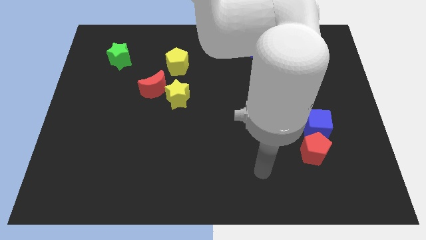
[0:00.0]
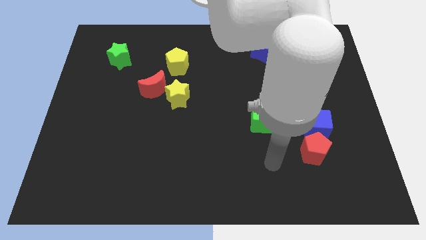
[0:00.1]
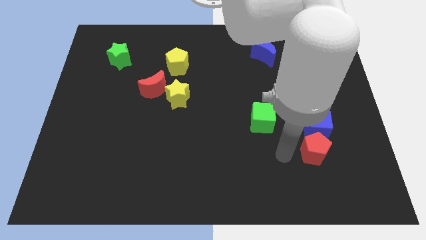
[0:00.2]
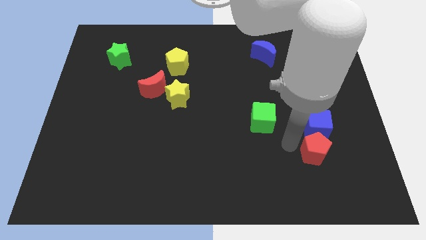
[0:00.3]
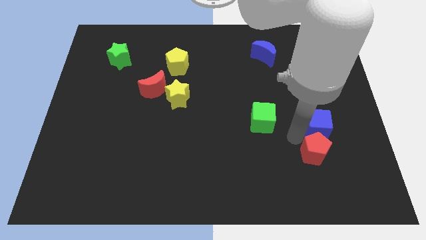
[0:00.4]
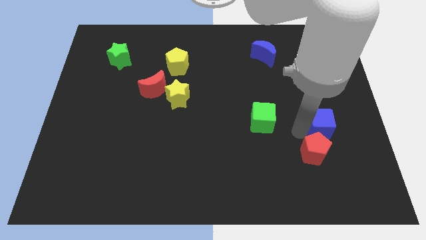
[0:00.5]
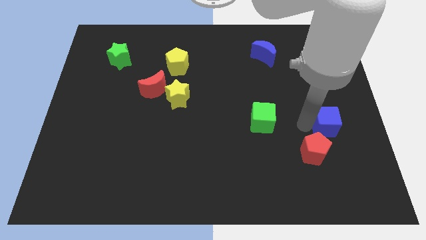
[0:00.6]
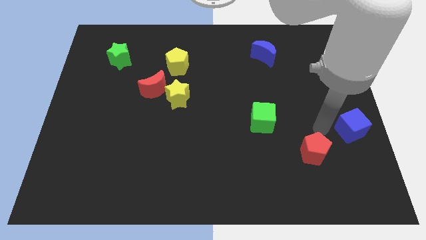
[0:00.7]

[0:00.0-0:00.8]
pull the red pentagon apart from the blue cube

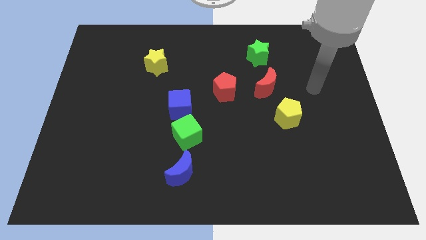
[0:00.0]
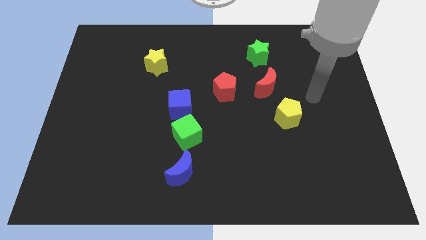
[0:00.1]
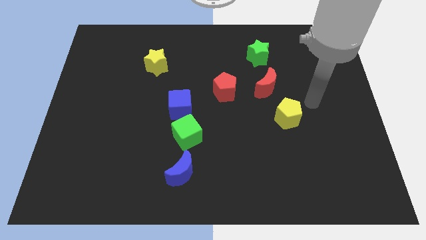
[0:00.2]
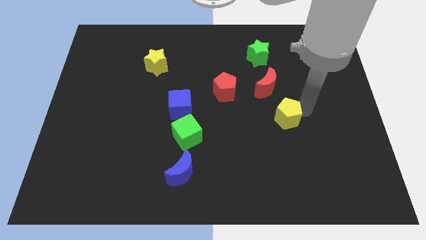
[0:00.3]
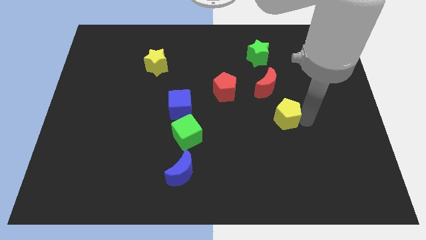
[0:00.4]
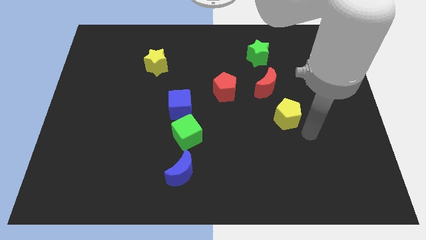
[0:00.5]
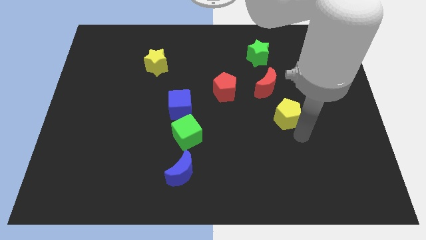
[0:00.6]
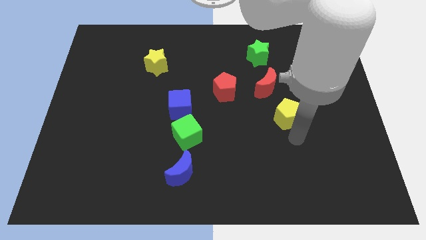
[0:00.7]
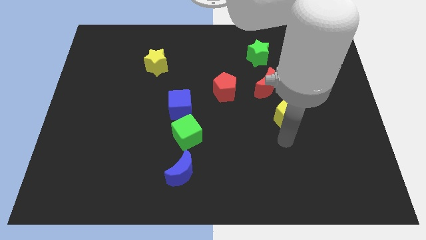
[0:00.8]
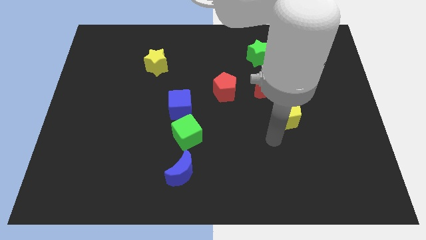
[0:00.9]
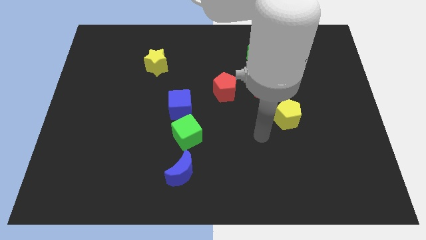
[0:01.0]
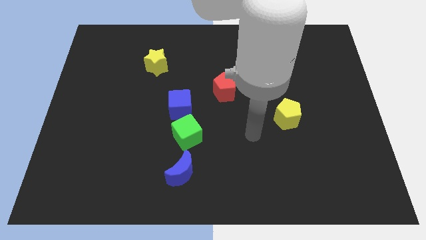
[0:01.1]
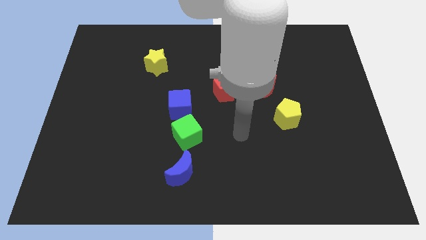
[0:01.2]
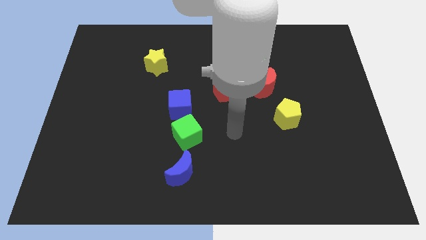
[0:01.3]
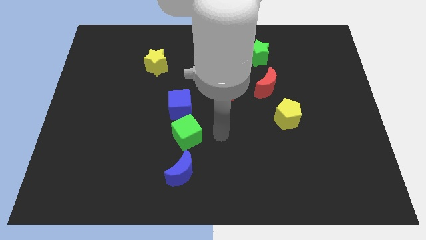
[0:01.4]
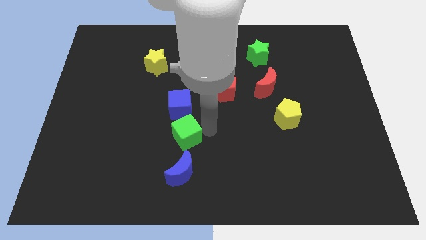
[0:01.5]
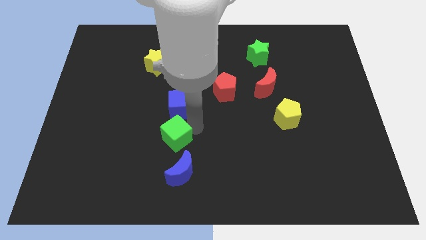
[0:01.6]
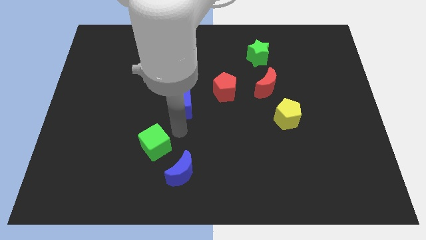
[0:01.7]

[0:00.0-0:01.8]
move the blue cube away from the green cube

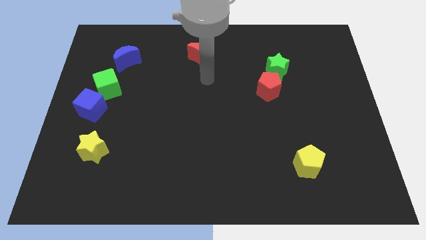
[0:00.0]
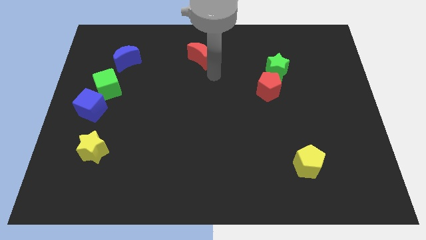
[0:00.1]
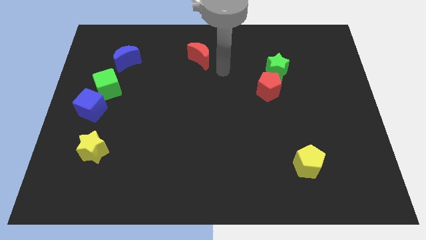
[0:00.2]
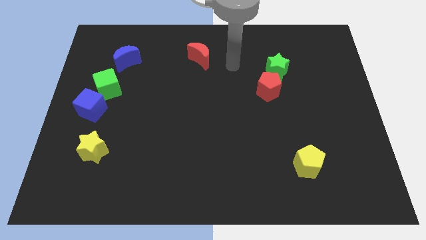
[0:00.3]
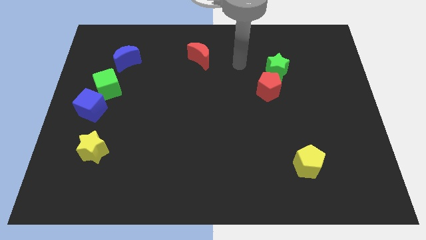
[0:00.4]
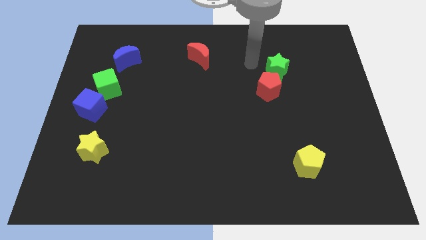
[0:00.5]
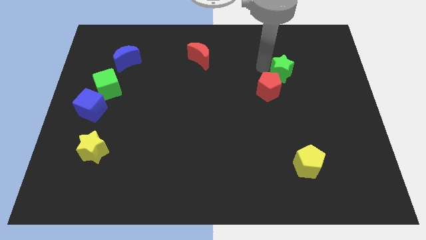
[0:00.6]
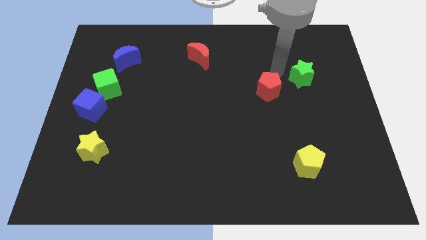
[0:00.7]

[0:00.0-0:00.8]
separate the red pentagon from the green star

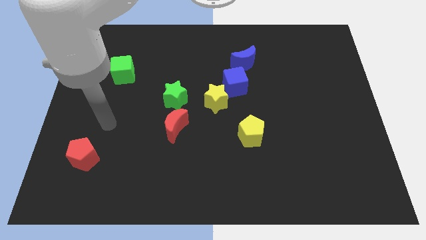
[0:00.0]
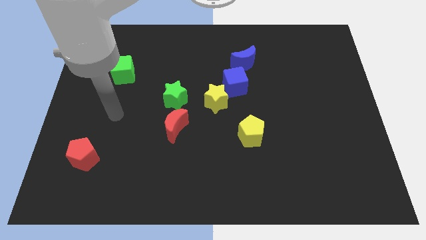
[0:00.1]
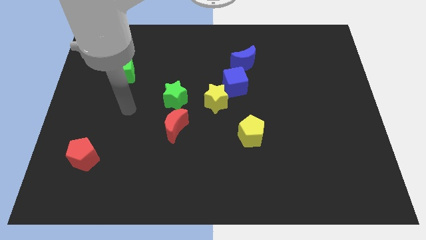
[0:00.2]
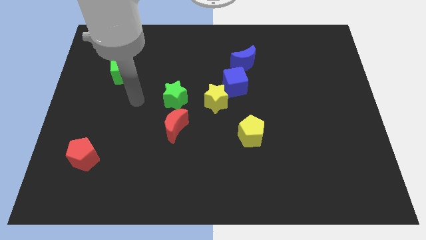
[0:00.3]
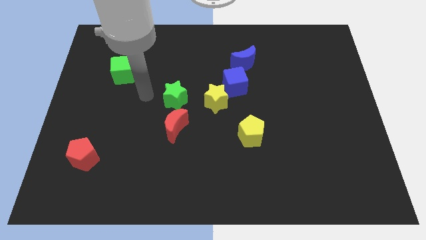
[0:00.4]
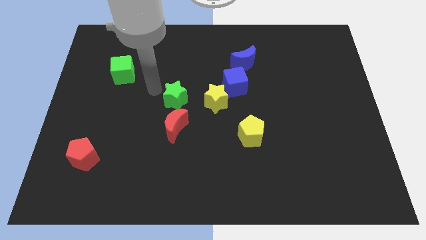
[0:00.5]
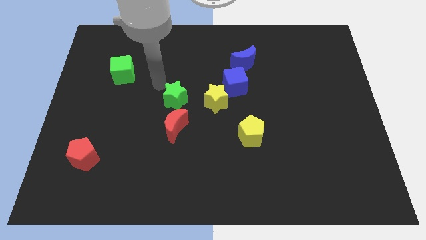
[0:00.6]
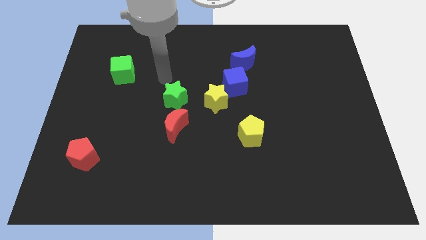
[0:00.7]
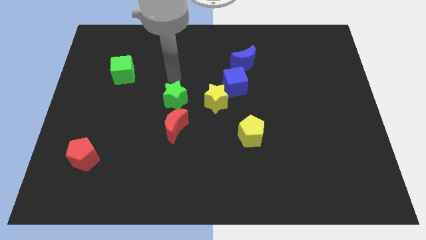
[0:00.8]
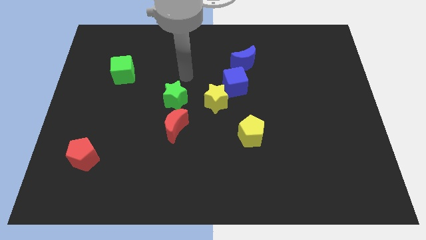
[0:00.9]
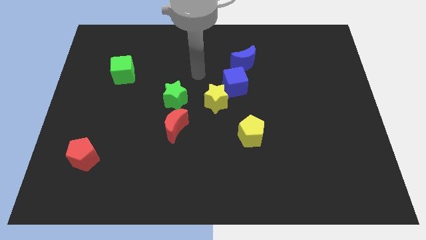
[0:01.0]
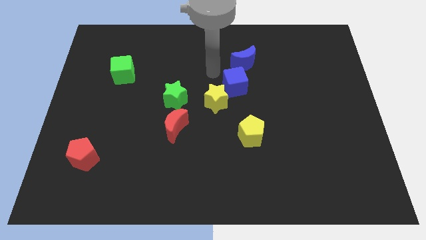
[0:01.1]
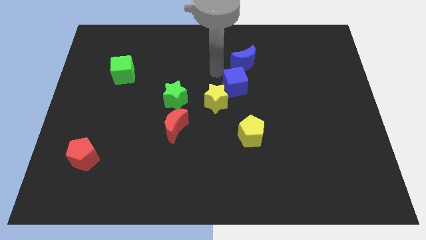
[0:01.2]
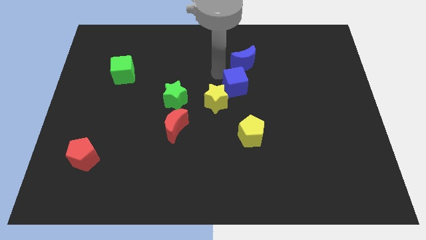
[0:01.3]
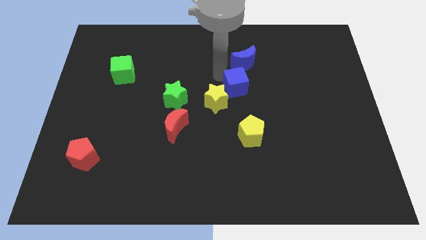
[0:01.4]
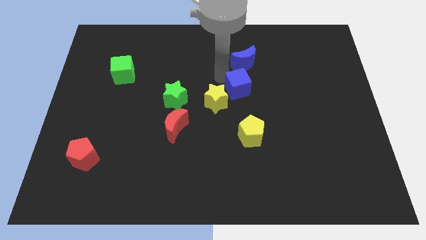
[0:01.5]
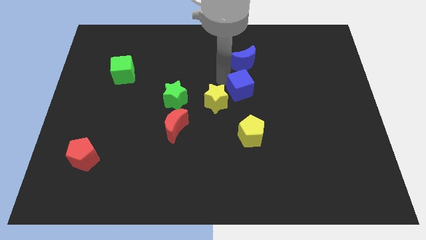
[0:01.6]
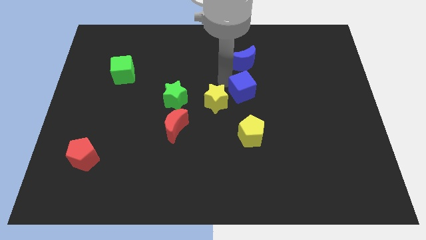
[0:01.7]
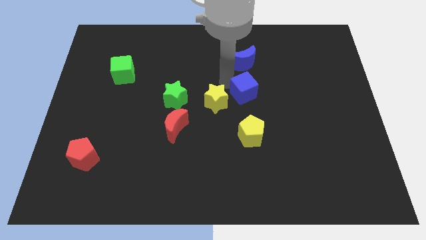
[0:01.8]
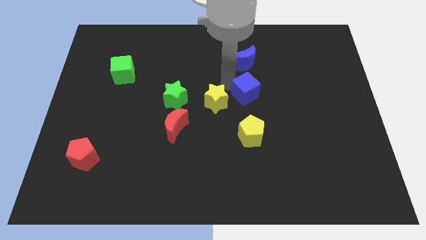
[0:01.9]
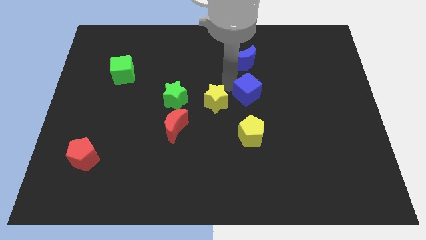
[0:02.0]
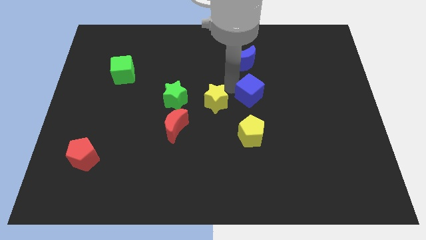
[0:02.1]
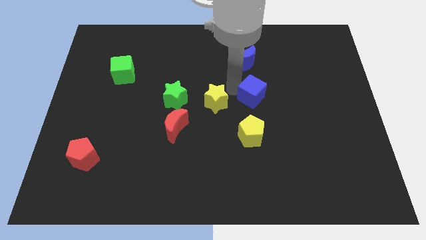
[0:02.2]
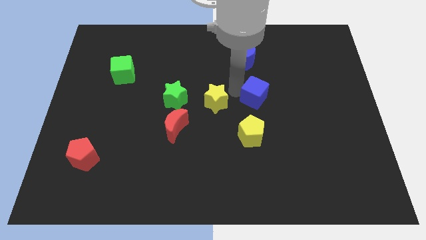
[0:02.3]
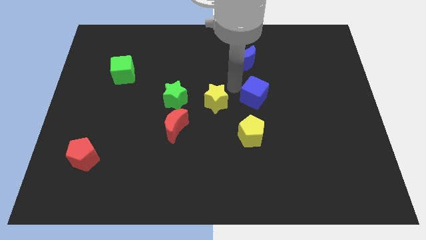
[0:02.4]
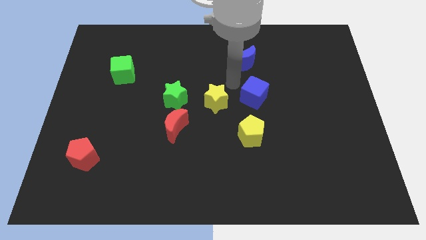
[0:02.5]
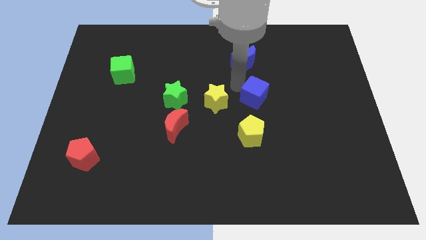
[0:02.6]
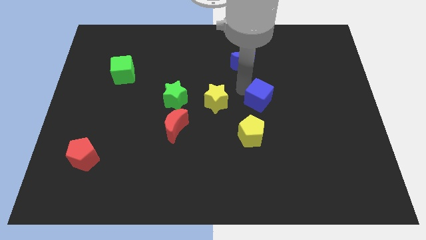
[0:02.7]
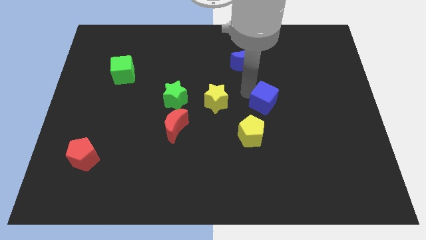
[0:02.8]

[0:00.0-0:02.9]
separate the blue cube from the yellow star and blue moon

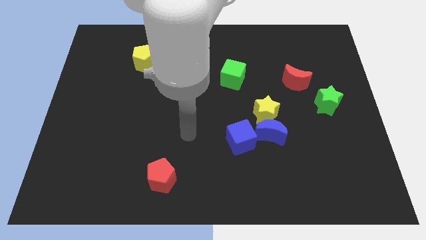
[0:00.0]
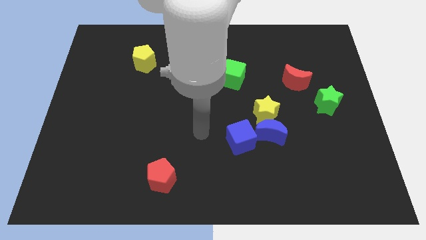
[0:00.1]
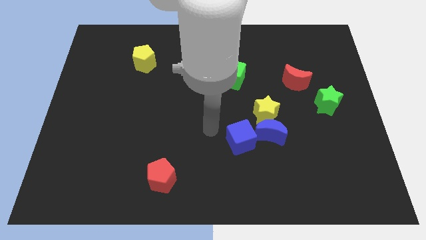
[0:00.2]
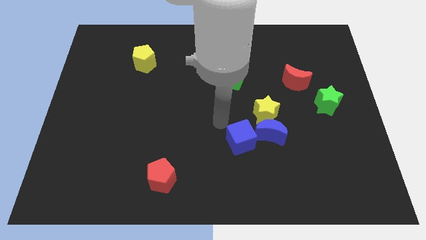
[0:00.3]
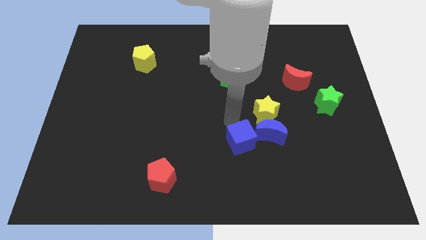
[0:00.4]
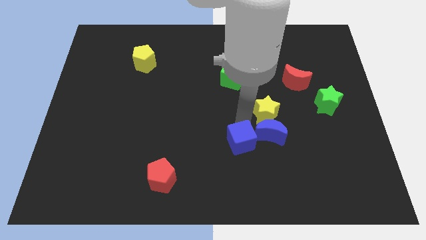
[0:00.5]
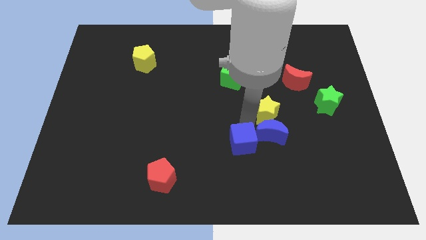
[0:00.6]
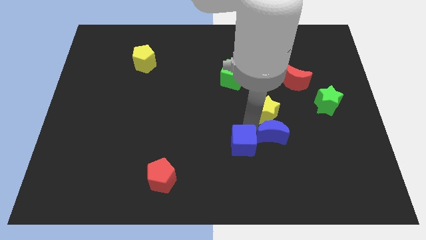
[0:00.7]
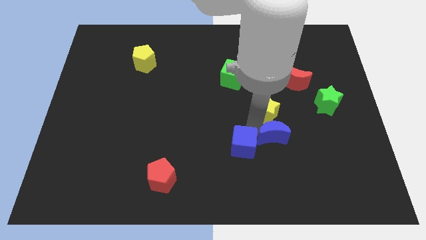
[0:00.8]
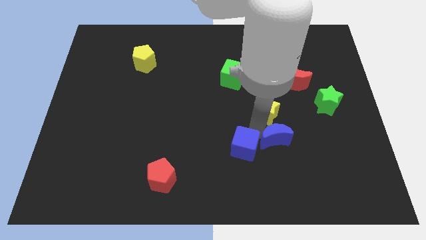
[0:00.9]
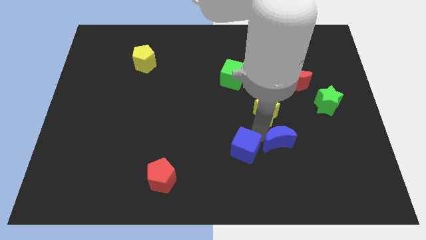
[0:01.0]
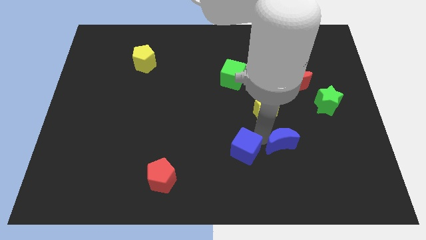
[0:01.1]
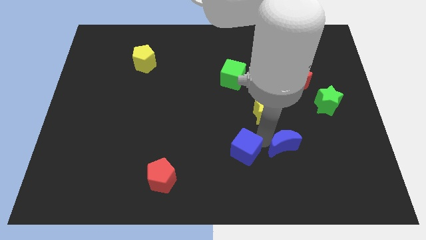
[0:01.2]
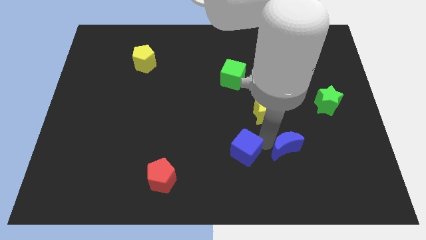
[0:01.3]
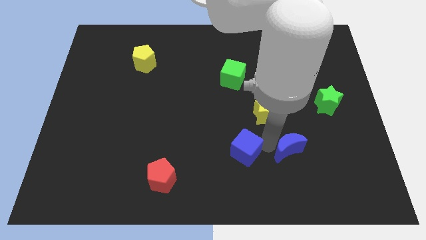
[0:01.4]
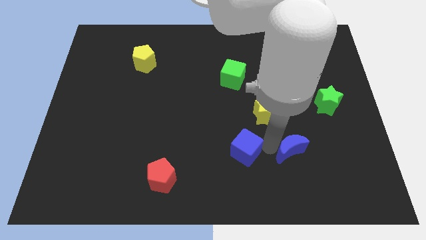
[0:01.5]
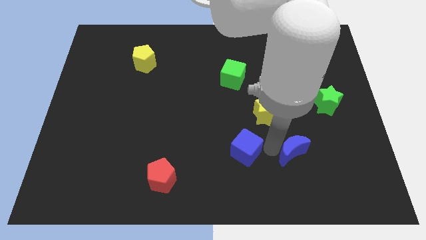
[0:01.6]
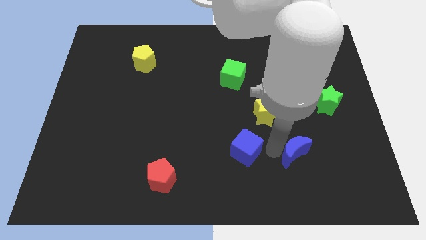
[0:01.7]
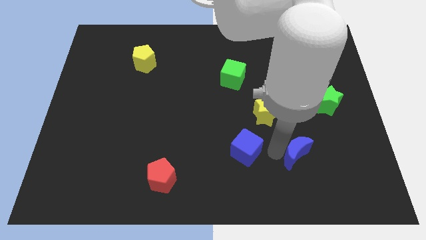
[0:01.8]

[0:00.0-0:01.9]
separate the blue moon from the yellow star and blue cube

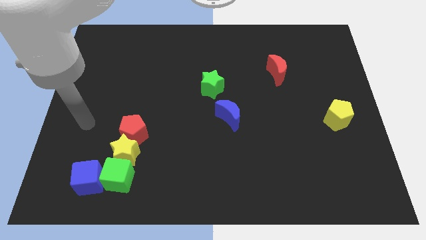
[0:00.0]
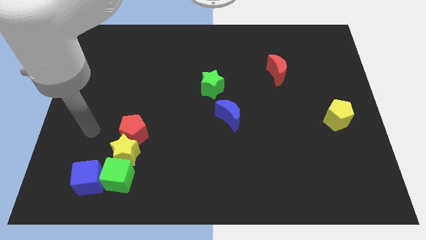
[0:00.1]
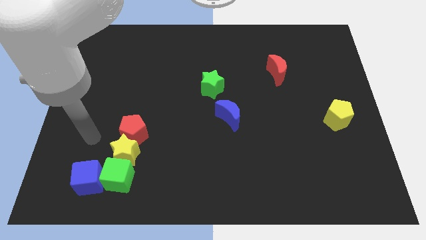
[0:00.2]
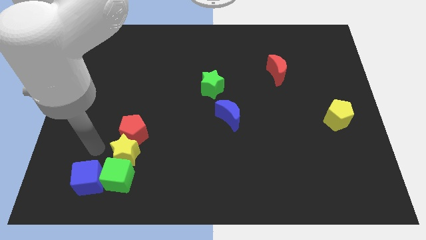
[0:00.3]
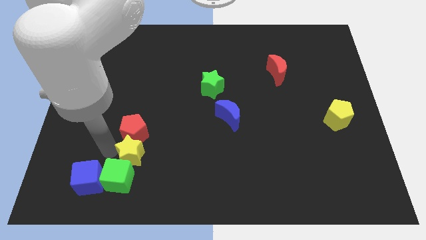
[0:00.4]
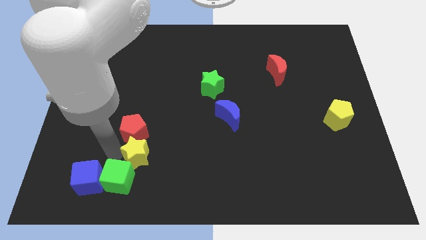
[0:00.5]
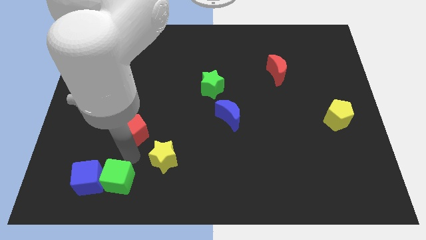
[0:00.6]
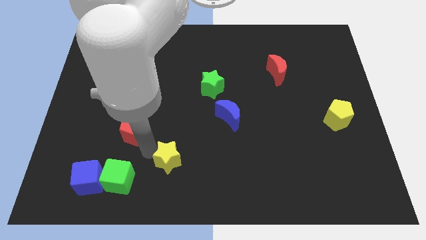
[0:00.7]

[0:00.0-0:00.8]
pull the red pentagon apart from the yellow star

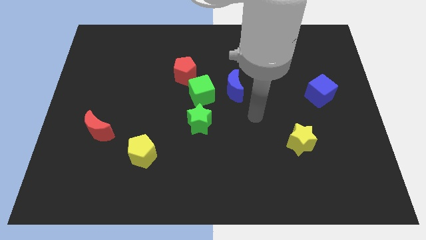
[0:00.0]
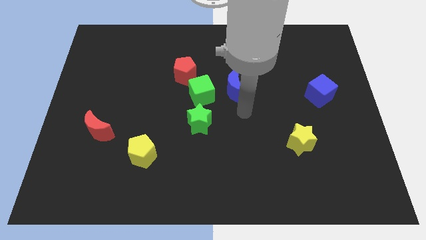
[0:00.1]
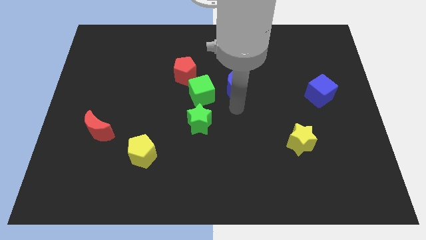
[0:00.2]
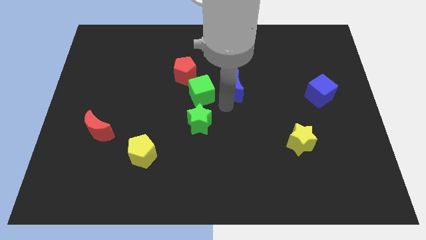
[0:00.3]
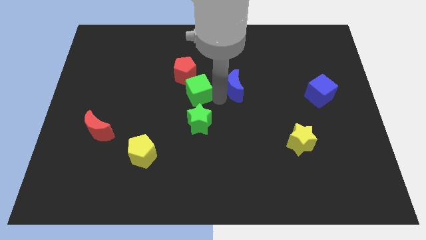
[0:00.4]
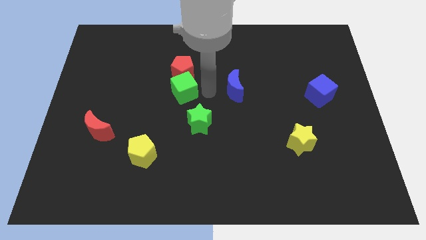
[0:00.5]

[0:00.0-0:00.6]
move the blue moon away from the green cube
